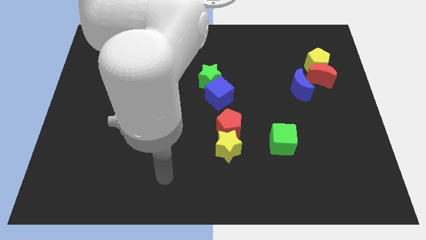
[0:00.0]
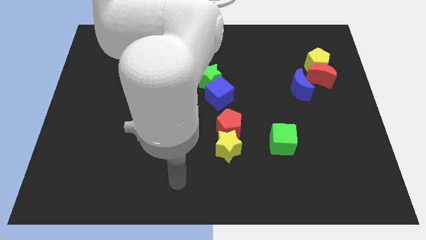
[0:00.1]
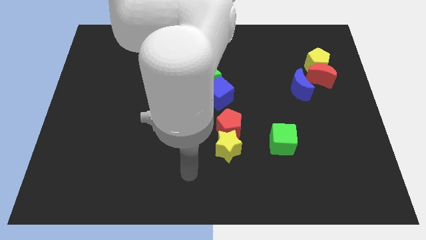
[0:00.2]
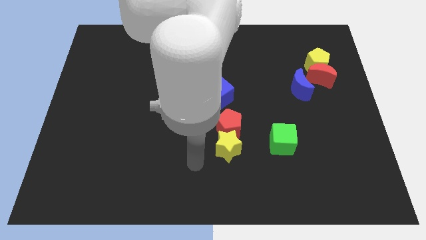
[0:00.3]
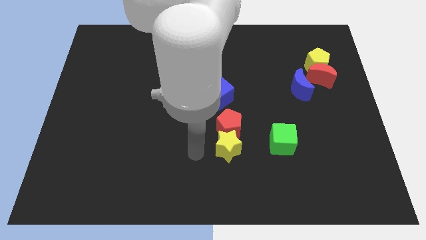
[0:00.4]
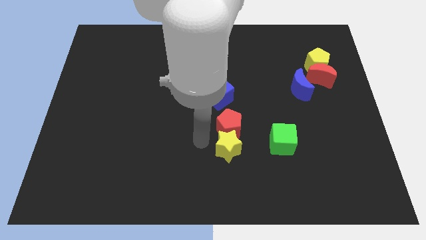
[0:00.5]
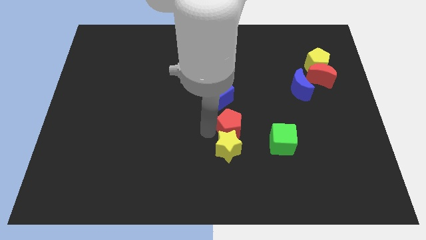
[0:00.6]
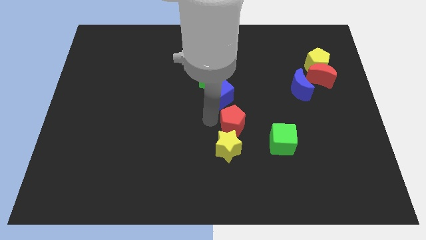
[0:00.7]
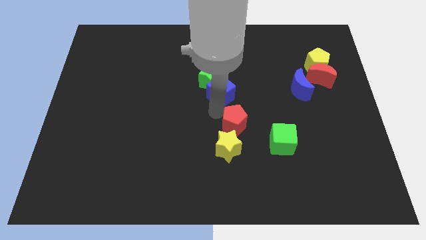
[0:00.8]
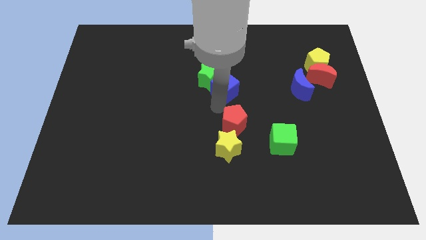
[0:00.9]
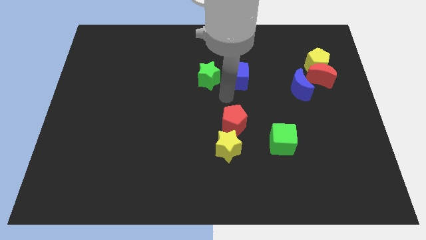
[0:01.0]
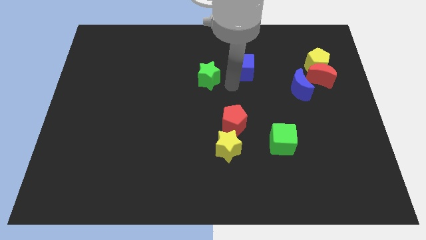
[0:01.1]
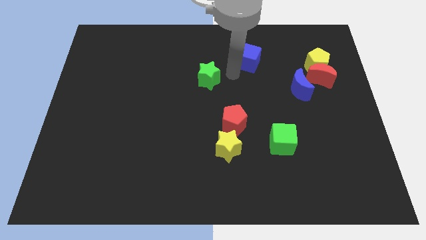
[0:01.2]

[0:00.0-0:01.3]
move the green star away from the blue cube

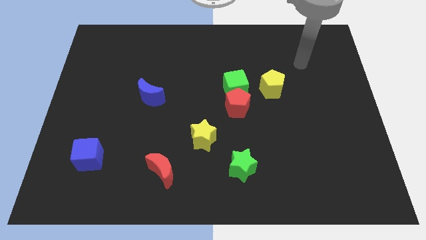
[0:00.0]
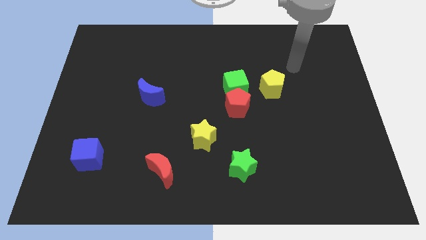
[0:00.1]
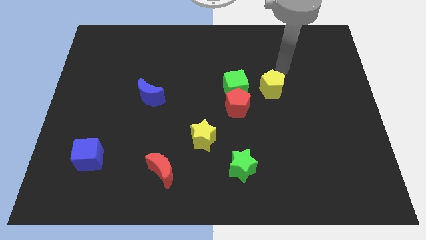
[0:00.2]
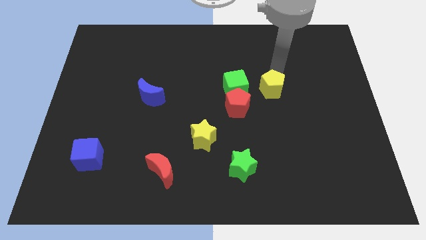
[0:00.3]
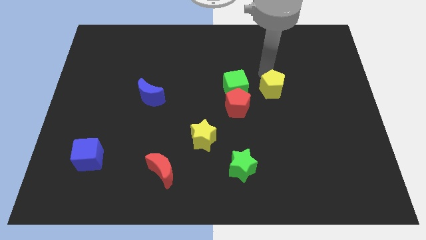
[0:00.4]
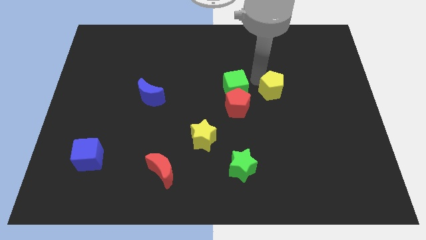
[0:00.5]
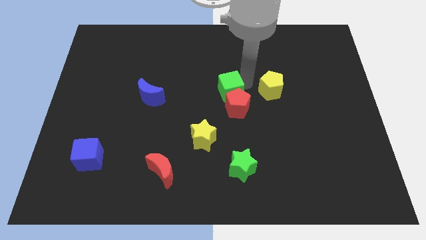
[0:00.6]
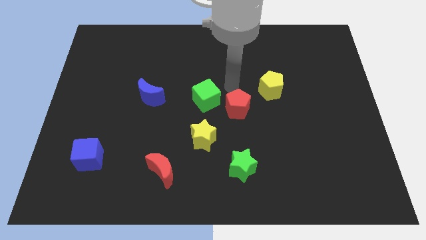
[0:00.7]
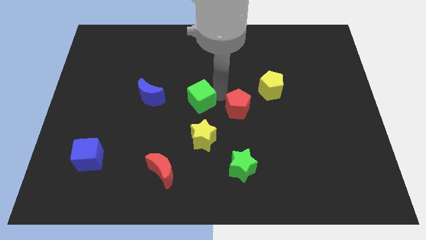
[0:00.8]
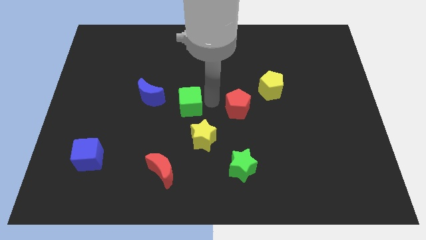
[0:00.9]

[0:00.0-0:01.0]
separate the red pentagon from the green cube

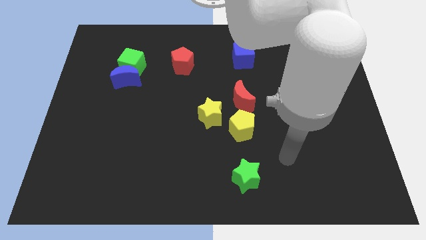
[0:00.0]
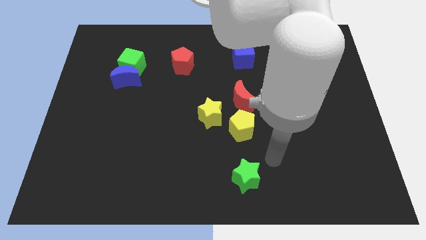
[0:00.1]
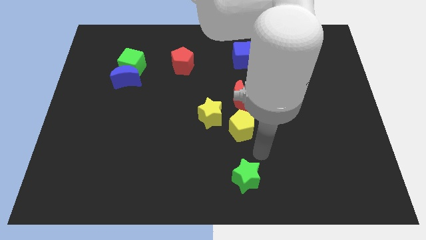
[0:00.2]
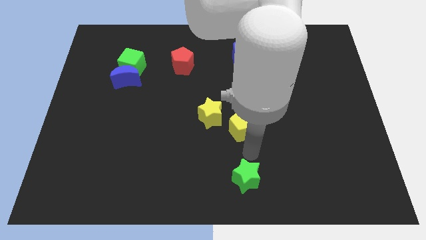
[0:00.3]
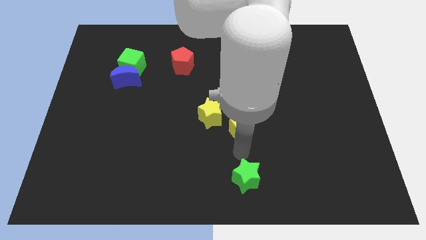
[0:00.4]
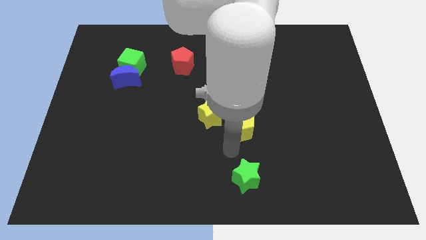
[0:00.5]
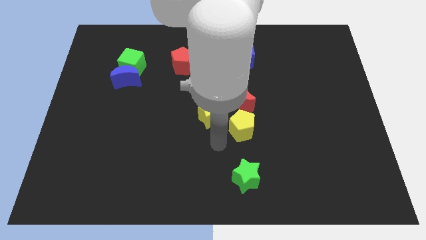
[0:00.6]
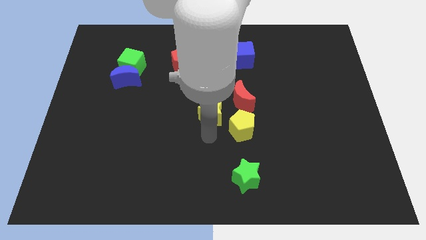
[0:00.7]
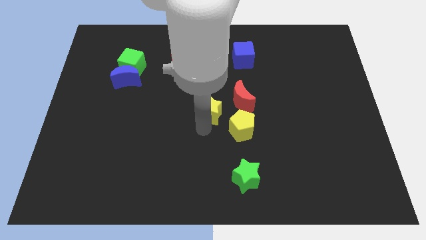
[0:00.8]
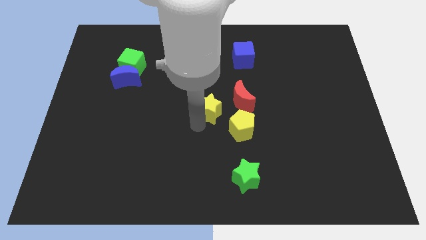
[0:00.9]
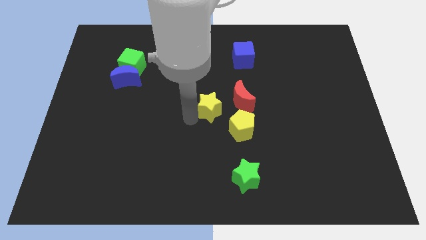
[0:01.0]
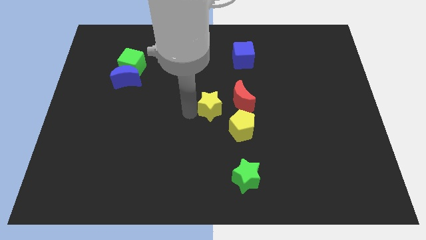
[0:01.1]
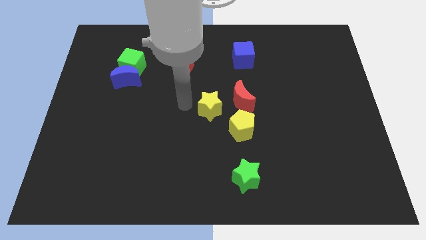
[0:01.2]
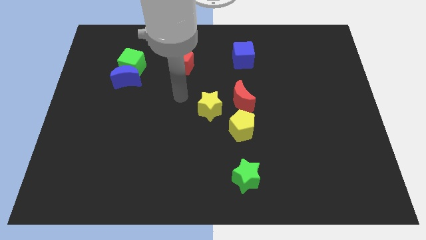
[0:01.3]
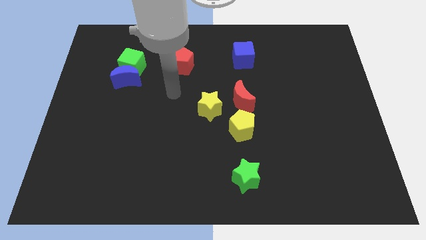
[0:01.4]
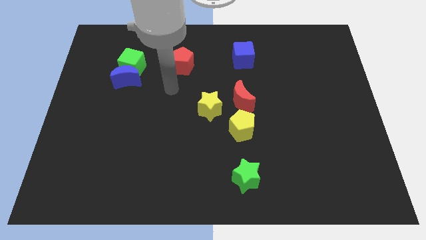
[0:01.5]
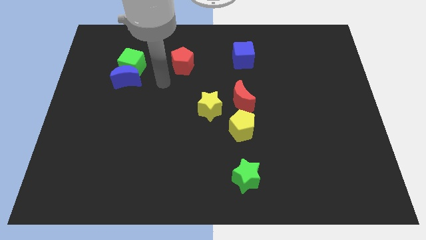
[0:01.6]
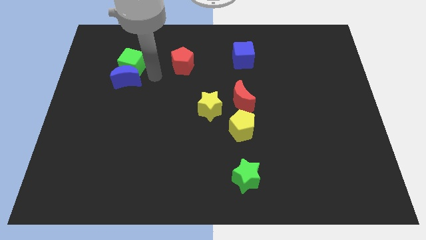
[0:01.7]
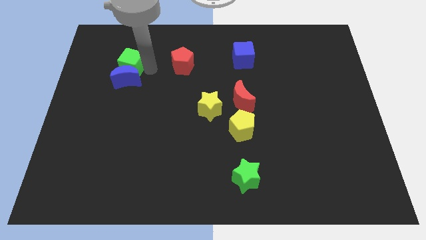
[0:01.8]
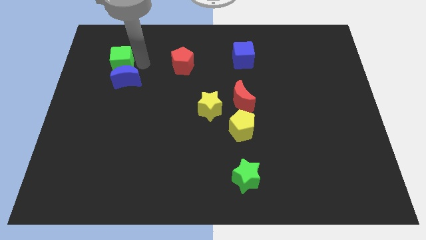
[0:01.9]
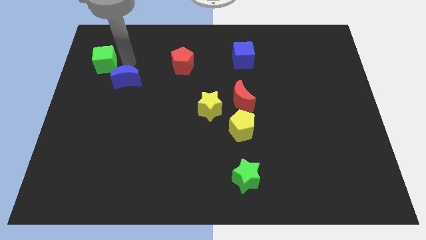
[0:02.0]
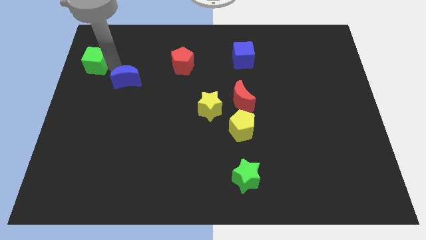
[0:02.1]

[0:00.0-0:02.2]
move the blue moon away from the green cube

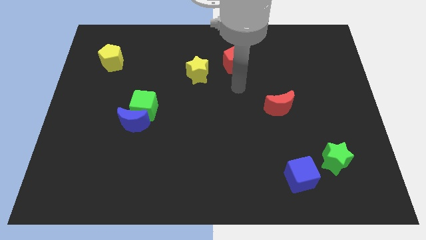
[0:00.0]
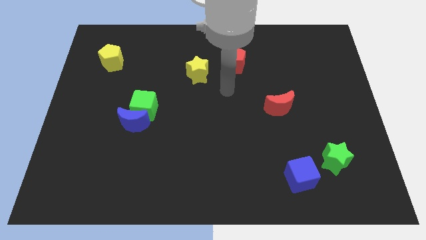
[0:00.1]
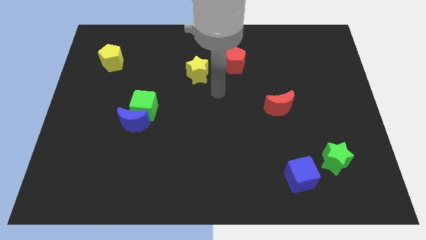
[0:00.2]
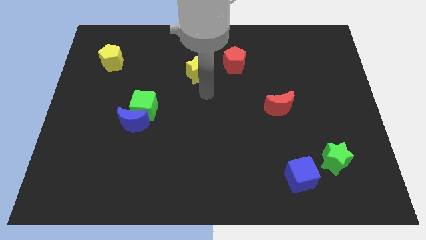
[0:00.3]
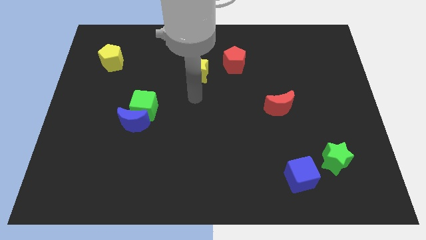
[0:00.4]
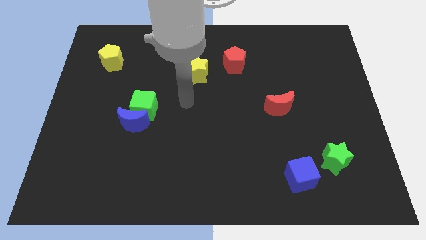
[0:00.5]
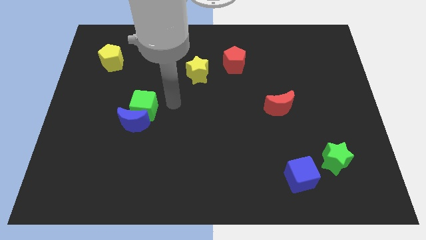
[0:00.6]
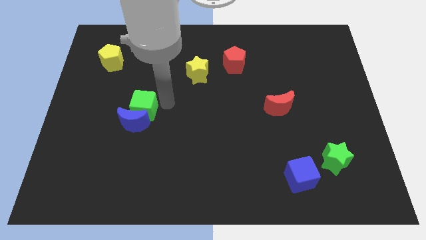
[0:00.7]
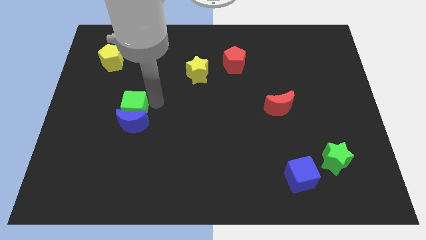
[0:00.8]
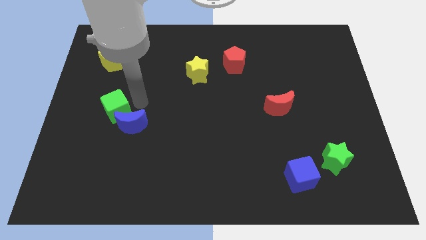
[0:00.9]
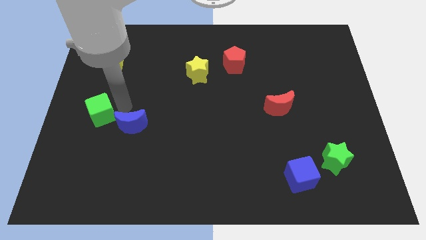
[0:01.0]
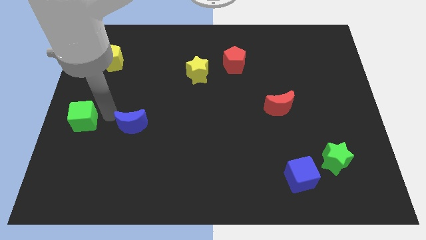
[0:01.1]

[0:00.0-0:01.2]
separate the blue moon from the green cube

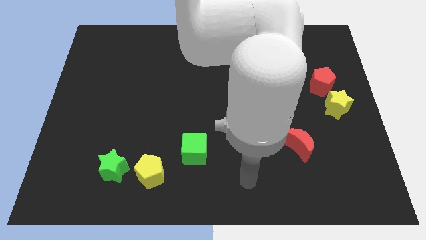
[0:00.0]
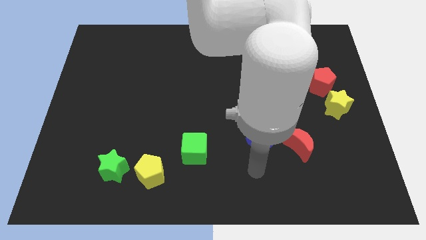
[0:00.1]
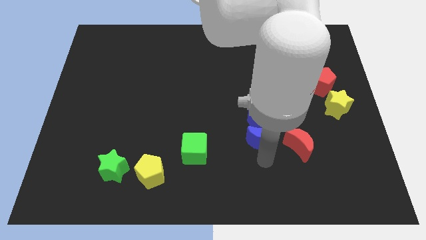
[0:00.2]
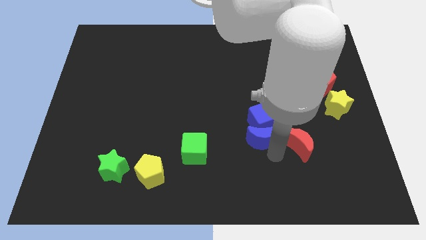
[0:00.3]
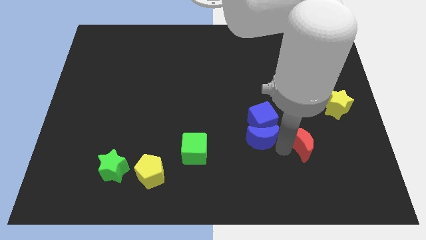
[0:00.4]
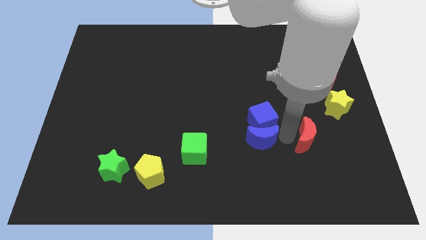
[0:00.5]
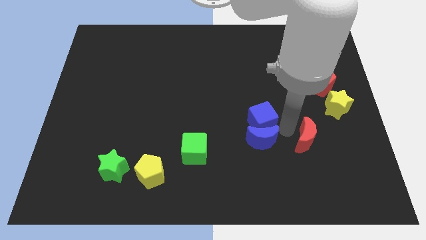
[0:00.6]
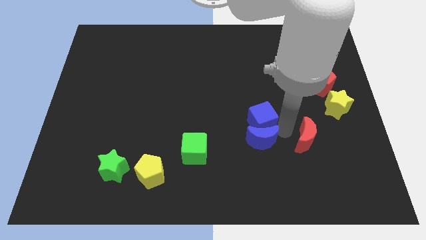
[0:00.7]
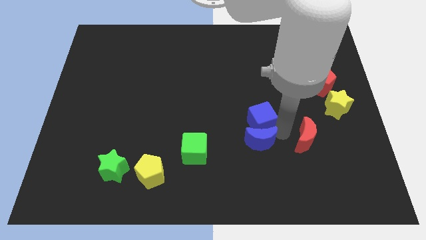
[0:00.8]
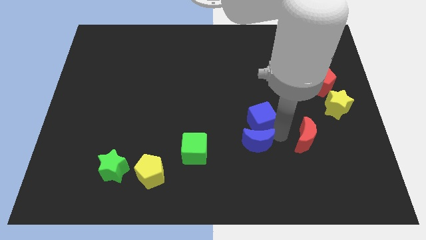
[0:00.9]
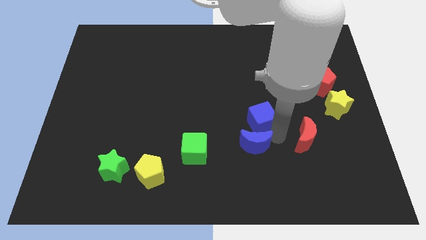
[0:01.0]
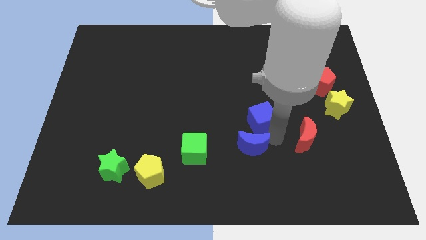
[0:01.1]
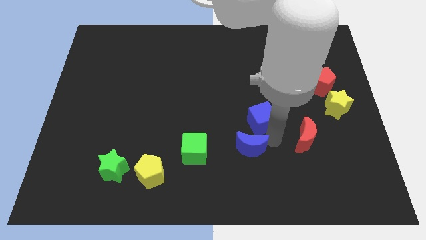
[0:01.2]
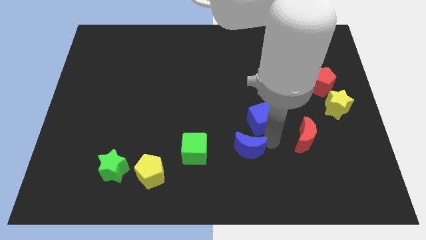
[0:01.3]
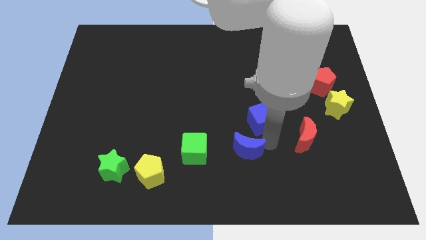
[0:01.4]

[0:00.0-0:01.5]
pull the blue moon apart from the blue cube and red moon

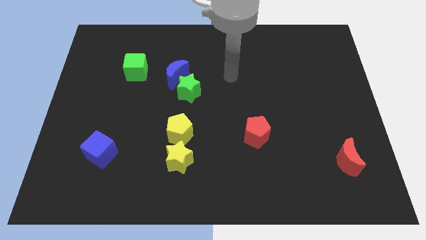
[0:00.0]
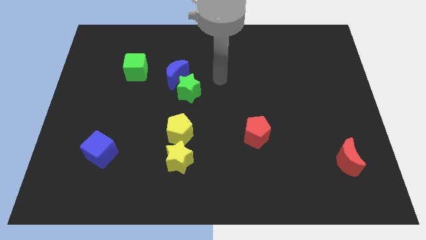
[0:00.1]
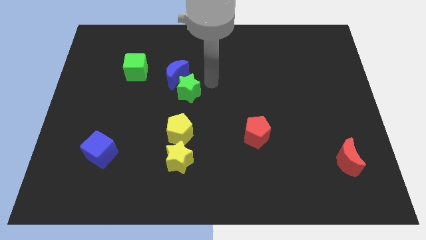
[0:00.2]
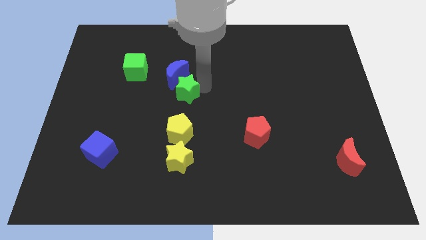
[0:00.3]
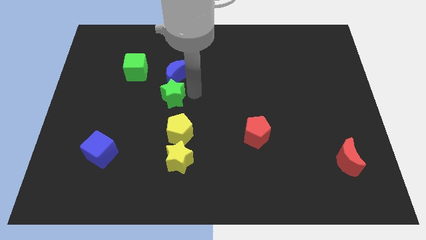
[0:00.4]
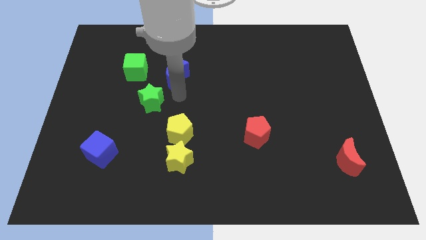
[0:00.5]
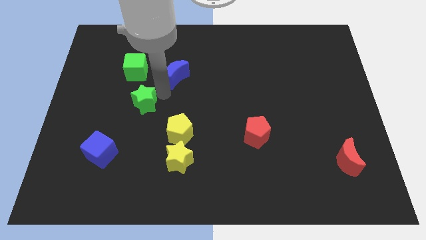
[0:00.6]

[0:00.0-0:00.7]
move the blue moon away from the green star

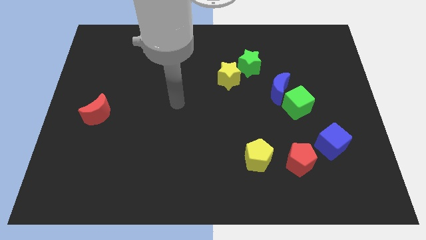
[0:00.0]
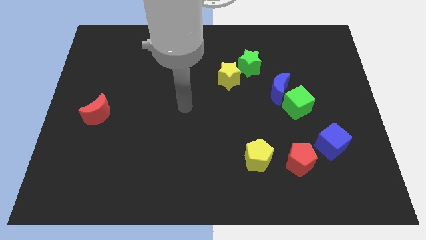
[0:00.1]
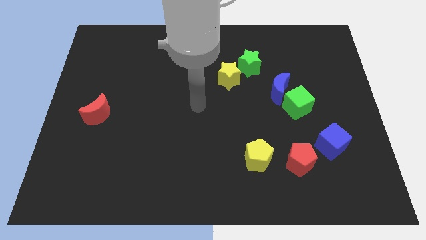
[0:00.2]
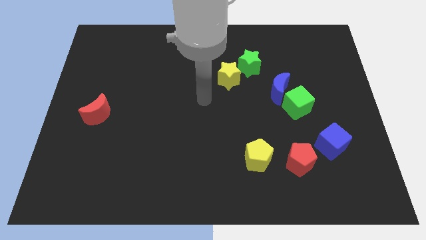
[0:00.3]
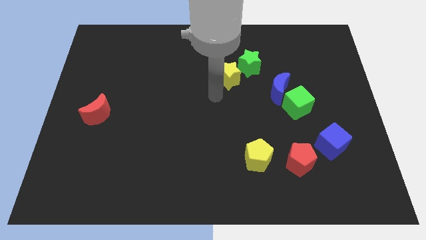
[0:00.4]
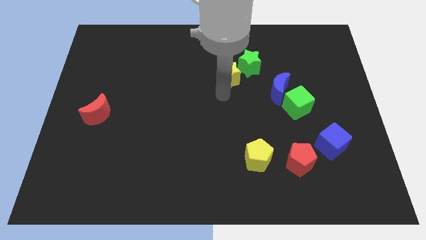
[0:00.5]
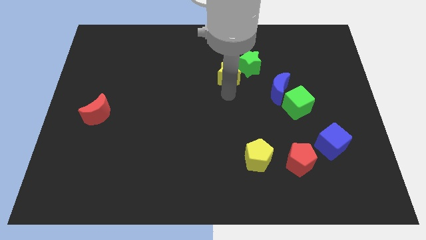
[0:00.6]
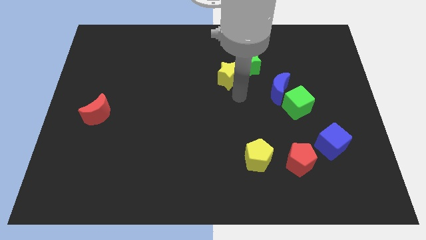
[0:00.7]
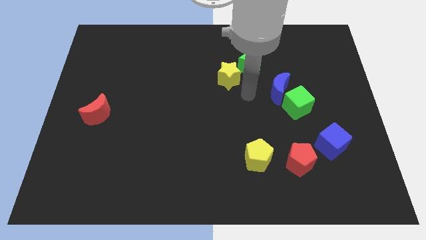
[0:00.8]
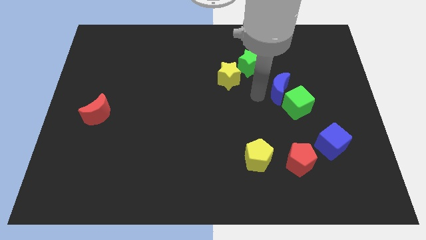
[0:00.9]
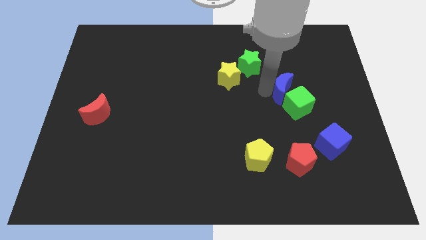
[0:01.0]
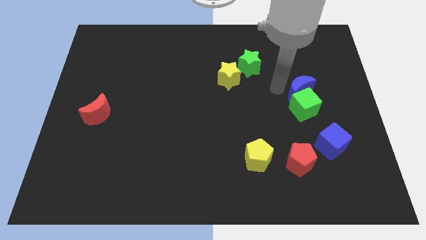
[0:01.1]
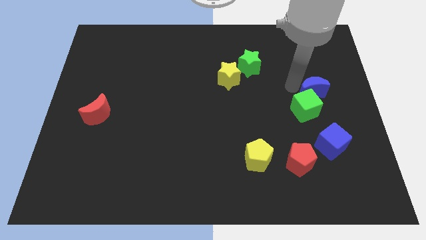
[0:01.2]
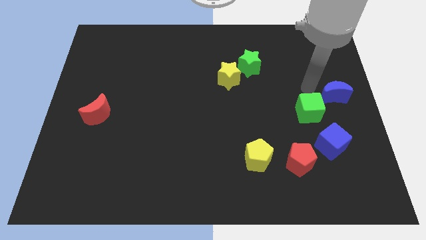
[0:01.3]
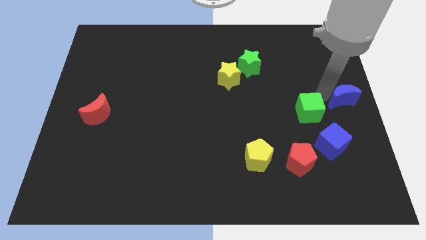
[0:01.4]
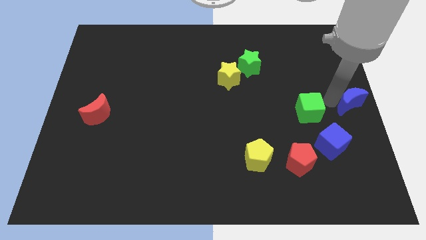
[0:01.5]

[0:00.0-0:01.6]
move the green cube away from the blue moon
